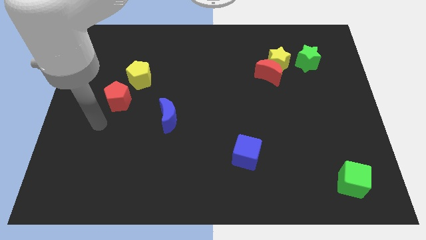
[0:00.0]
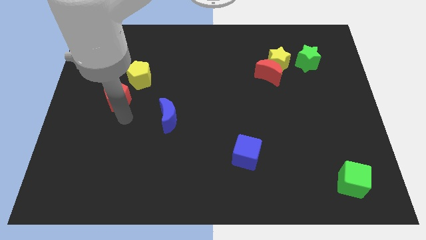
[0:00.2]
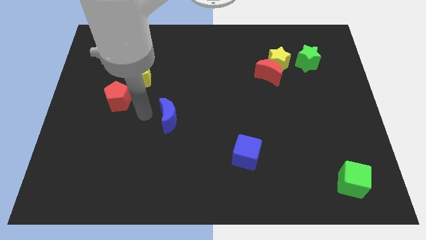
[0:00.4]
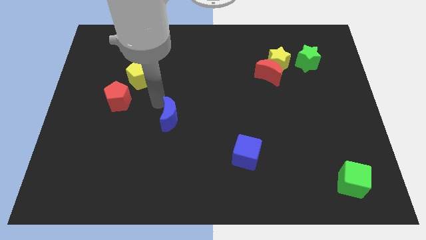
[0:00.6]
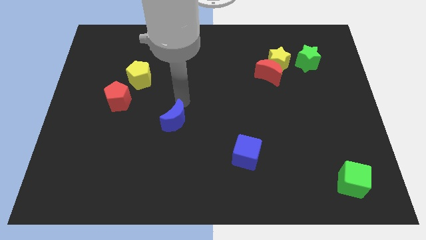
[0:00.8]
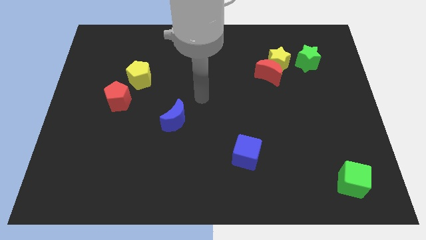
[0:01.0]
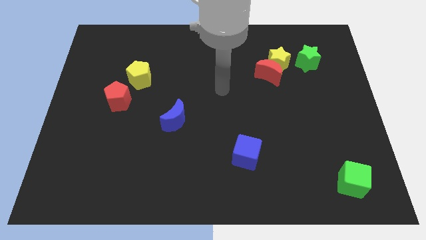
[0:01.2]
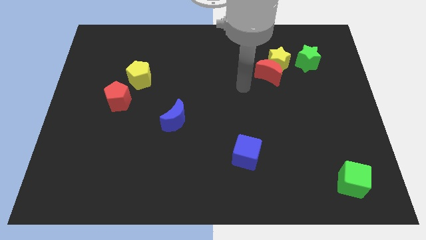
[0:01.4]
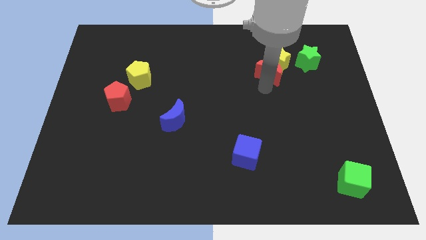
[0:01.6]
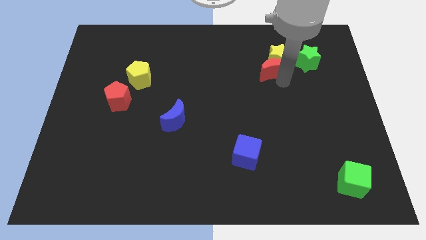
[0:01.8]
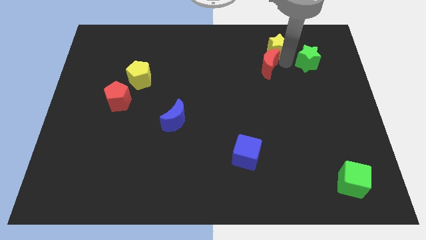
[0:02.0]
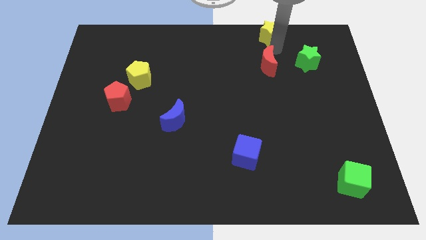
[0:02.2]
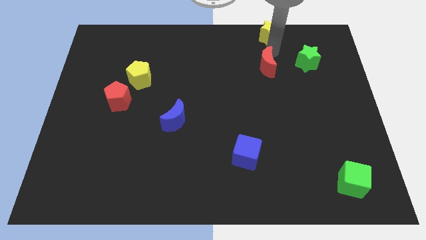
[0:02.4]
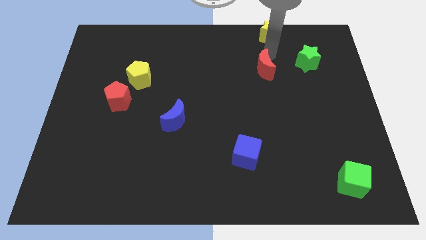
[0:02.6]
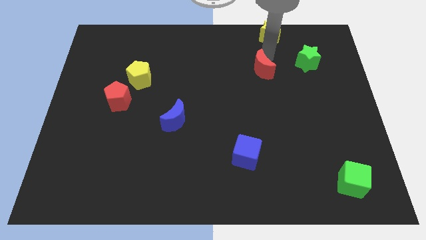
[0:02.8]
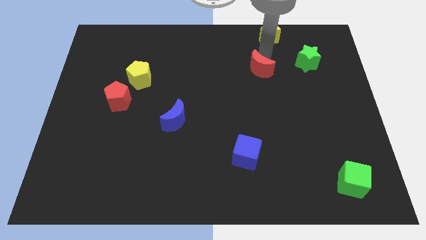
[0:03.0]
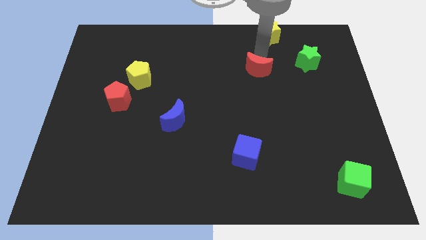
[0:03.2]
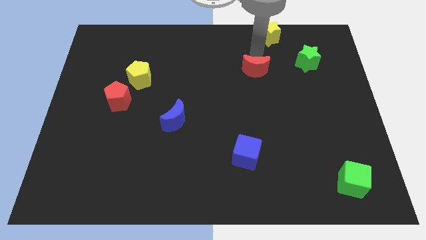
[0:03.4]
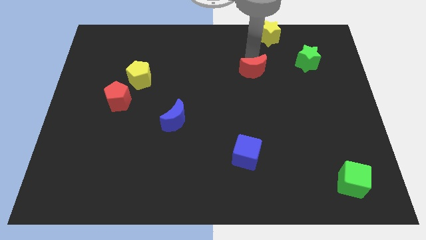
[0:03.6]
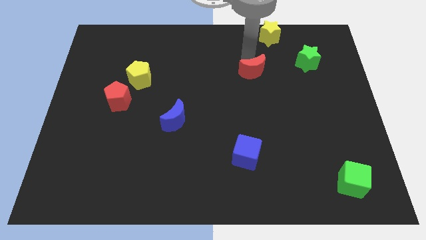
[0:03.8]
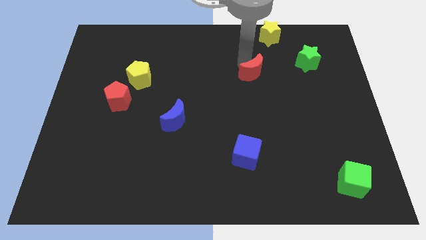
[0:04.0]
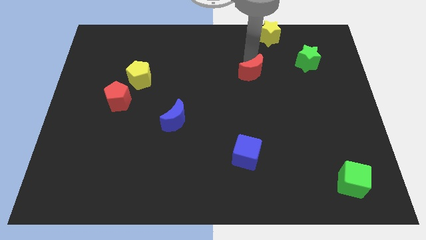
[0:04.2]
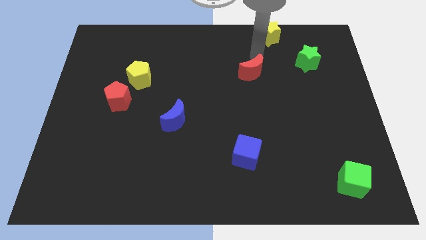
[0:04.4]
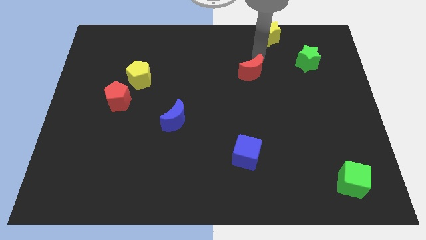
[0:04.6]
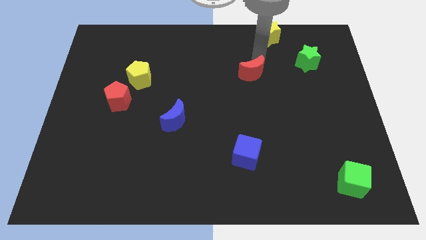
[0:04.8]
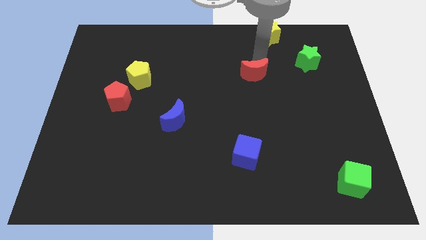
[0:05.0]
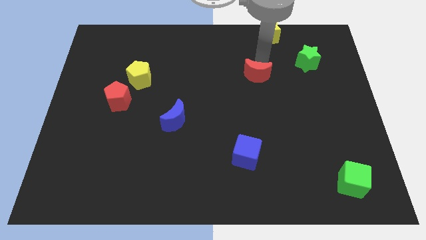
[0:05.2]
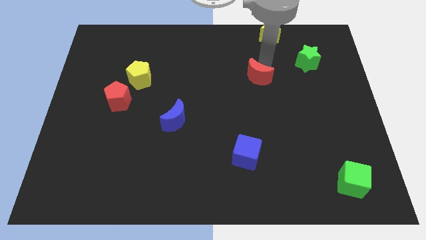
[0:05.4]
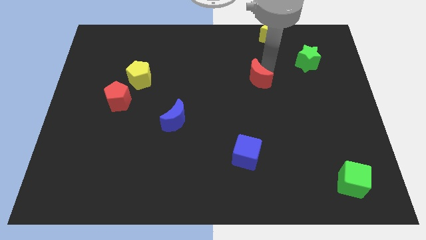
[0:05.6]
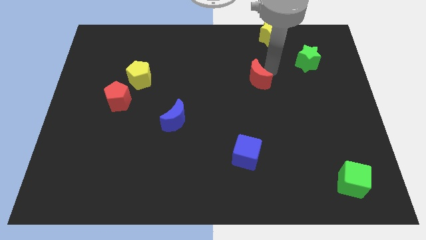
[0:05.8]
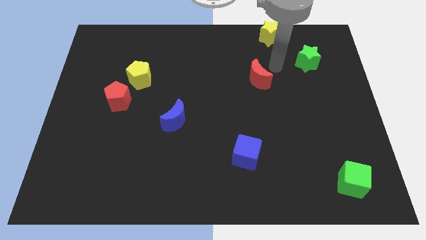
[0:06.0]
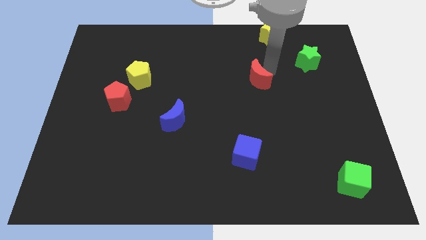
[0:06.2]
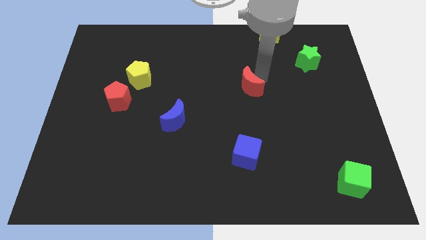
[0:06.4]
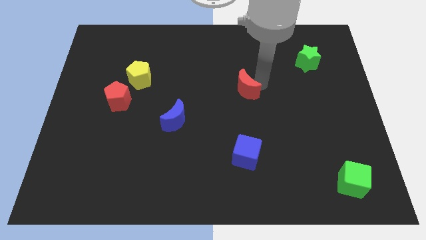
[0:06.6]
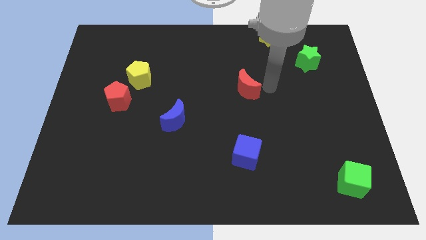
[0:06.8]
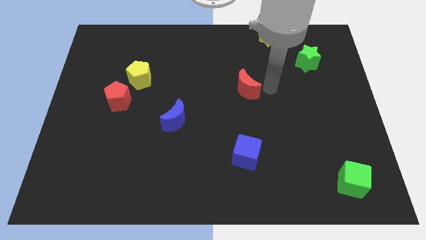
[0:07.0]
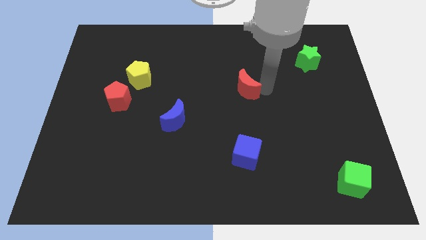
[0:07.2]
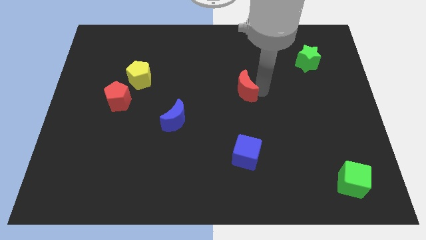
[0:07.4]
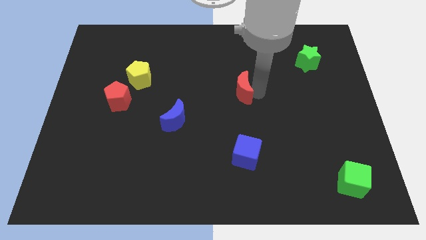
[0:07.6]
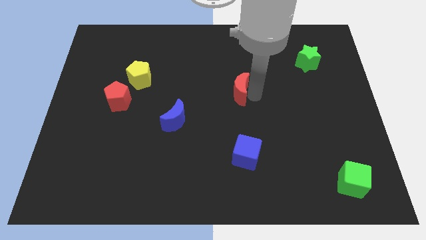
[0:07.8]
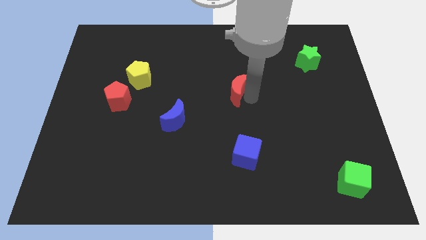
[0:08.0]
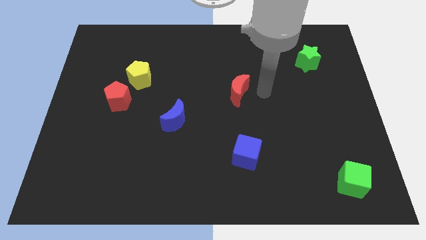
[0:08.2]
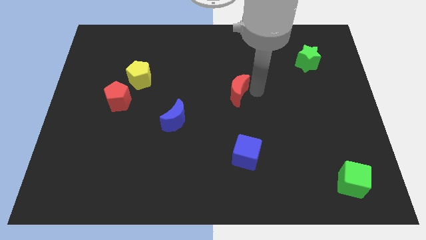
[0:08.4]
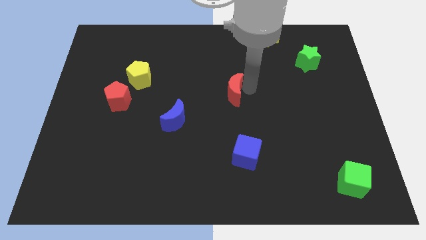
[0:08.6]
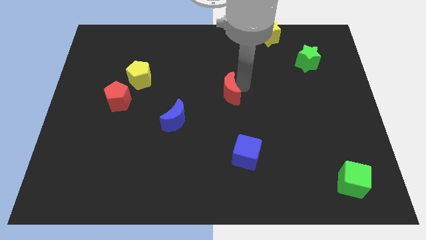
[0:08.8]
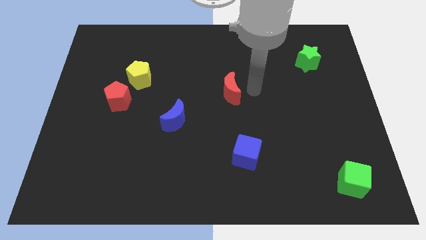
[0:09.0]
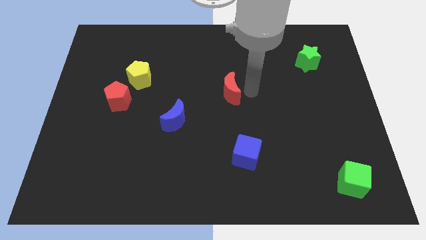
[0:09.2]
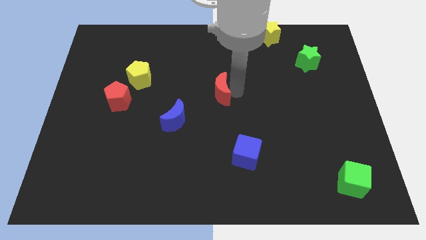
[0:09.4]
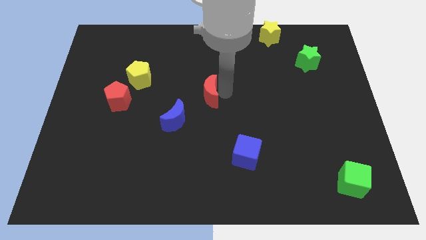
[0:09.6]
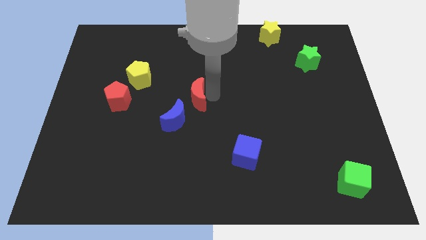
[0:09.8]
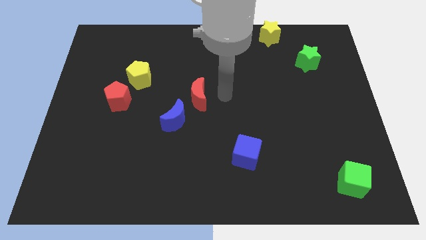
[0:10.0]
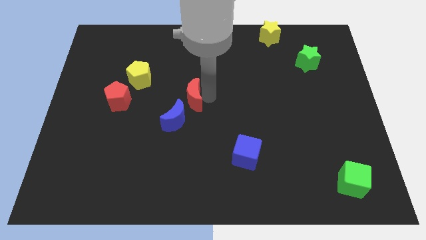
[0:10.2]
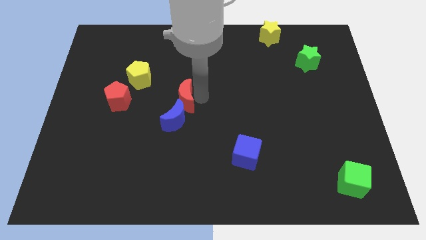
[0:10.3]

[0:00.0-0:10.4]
slide the red moon right of the red pentagon

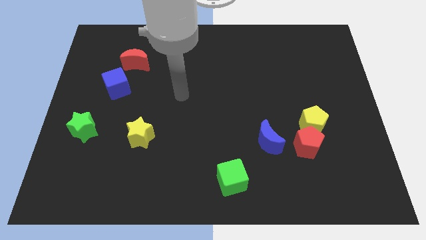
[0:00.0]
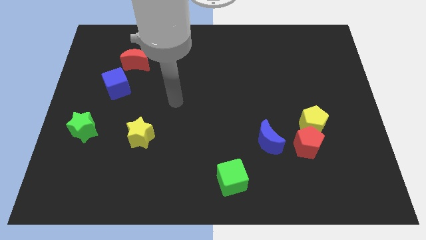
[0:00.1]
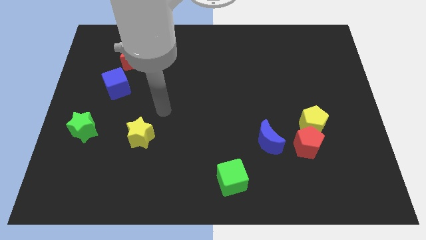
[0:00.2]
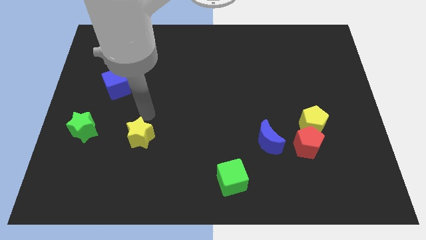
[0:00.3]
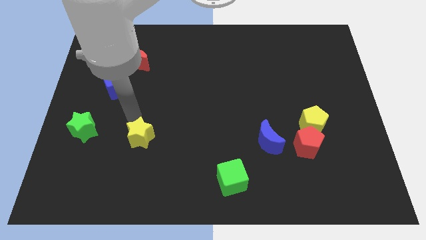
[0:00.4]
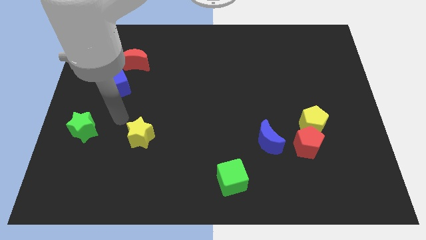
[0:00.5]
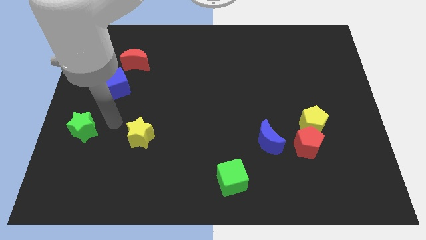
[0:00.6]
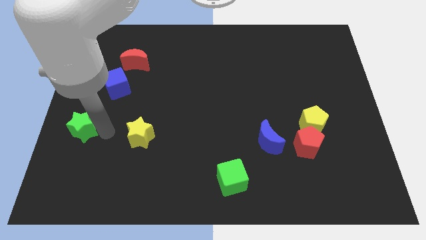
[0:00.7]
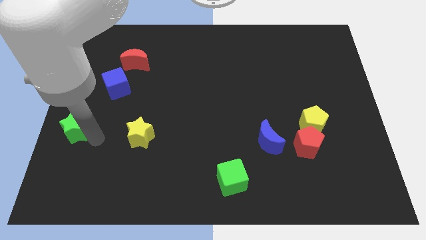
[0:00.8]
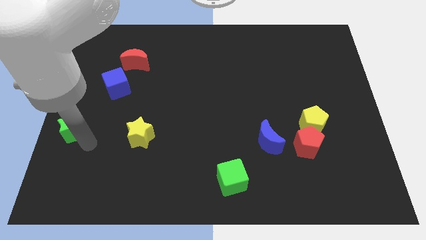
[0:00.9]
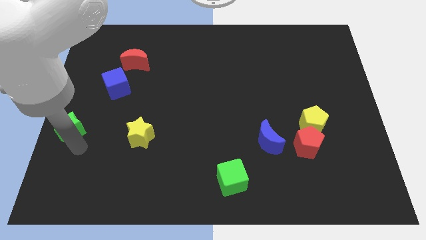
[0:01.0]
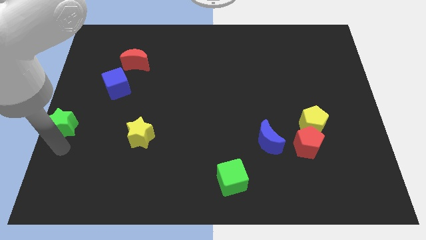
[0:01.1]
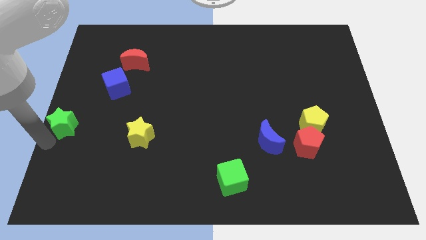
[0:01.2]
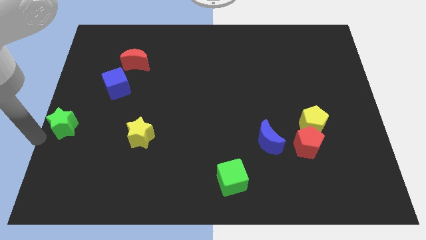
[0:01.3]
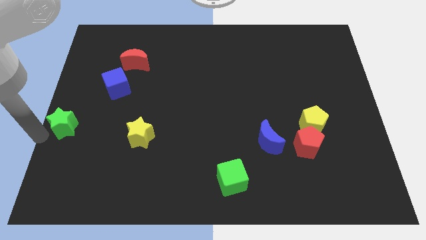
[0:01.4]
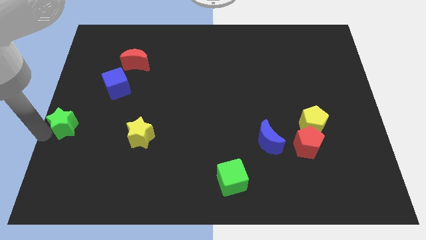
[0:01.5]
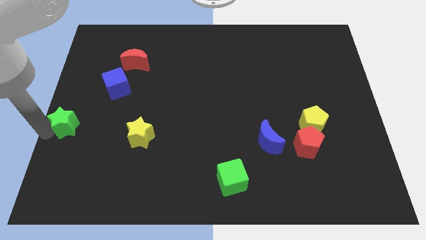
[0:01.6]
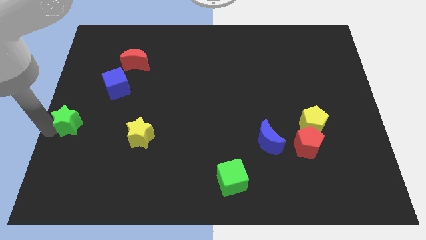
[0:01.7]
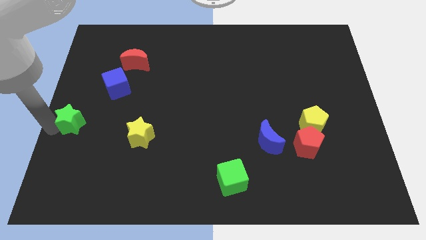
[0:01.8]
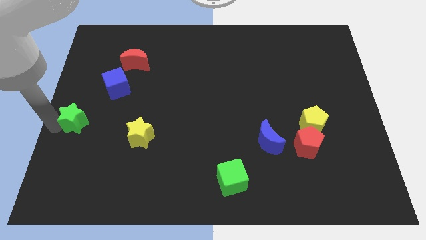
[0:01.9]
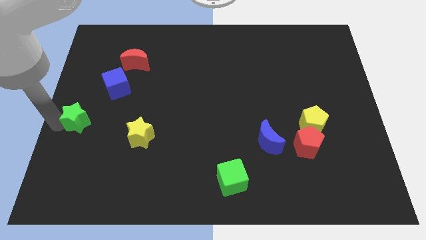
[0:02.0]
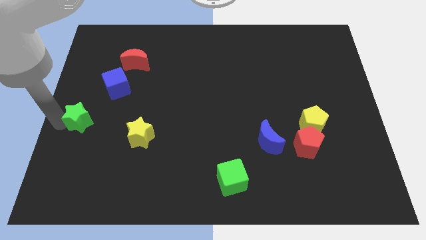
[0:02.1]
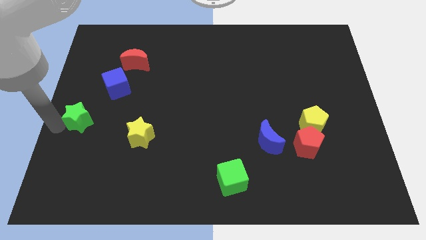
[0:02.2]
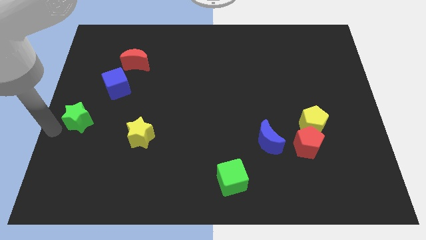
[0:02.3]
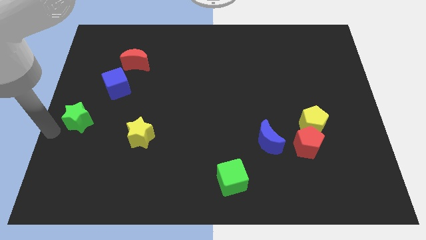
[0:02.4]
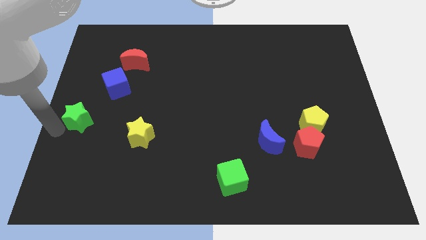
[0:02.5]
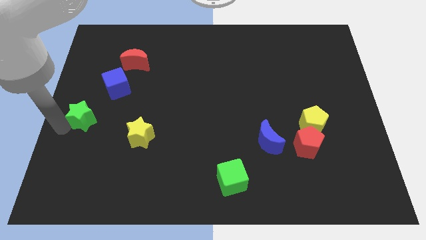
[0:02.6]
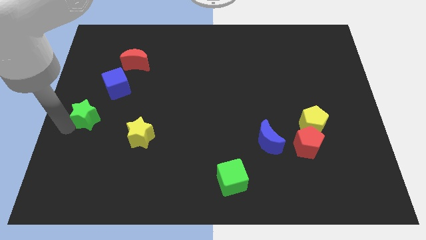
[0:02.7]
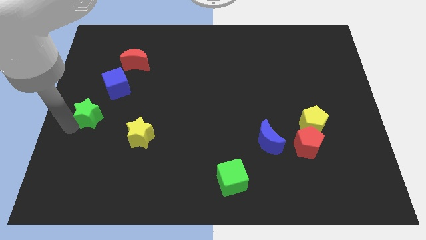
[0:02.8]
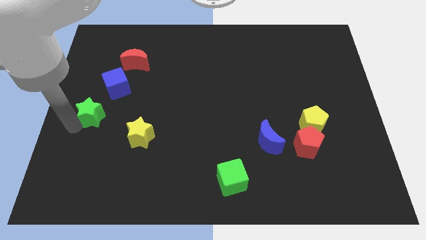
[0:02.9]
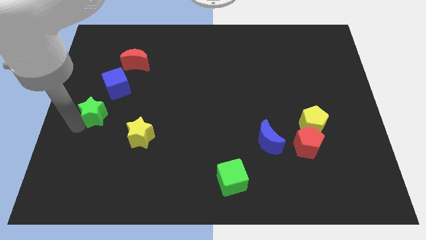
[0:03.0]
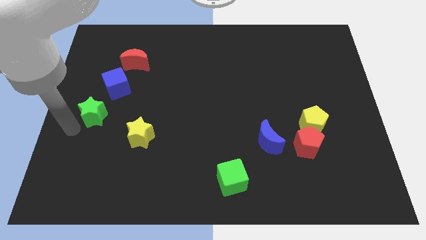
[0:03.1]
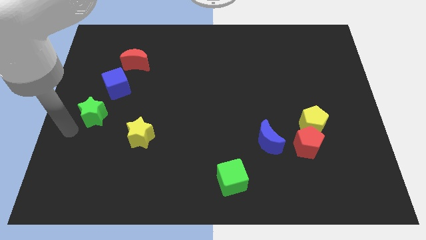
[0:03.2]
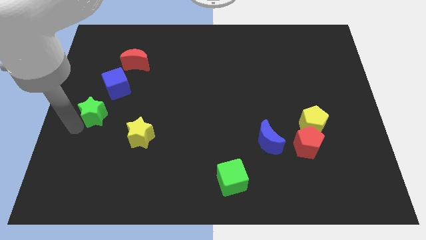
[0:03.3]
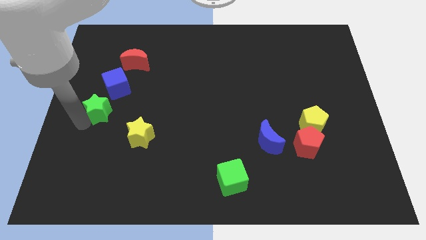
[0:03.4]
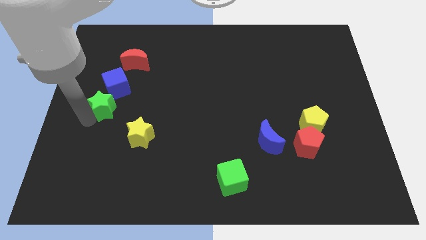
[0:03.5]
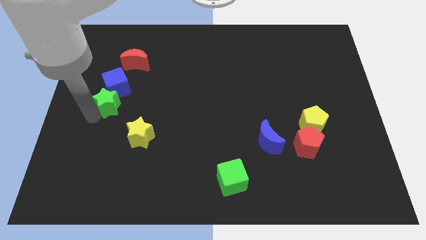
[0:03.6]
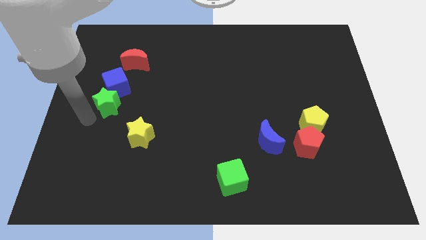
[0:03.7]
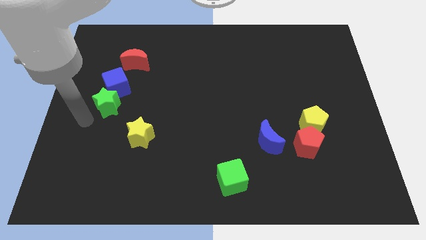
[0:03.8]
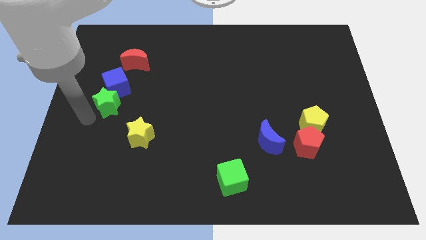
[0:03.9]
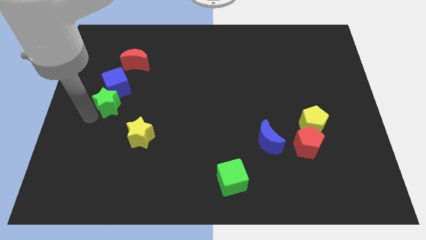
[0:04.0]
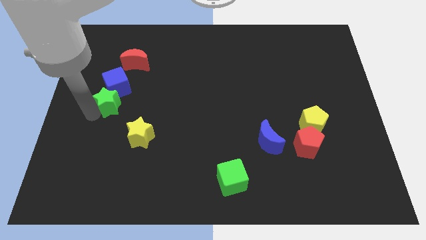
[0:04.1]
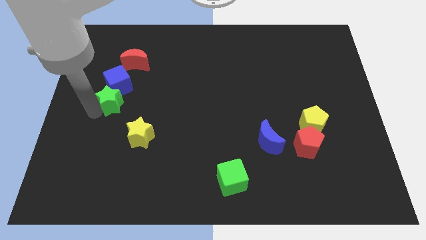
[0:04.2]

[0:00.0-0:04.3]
put the green star to the bottom of the red moon
